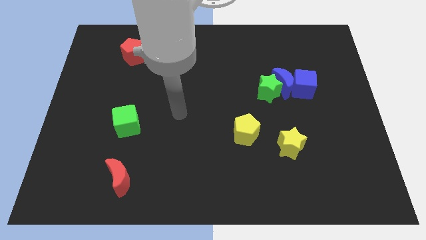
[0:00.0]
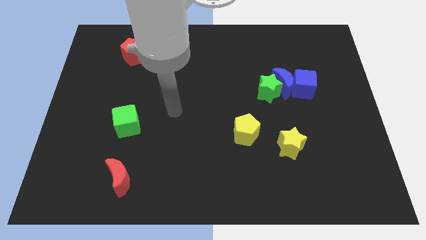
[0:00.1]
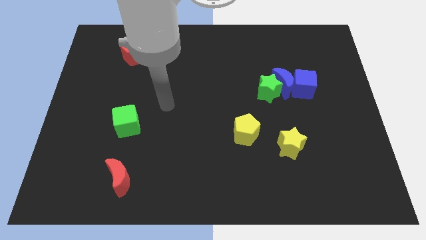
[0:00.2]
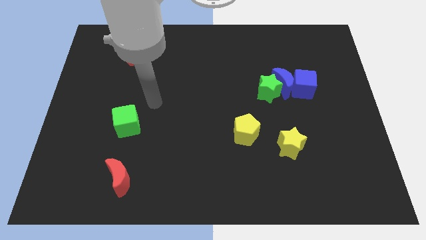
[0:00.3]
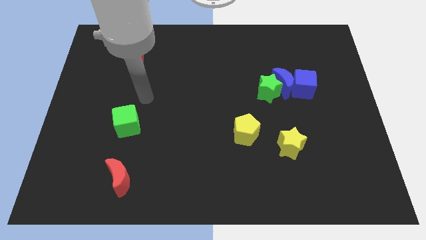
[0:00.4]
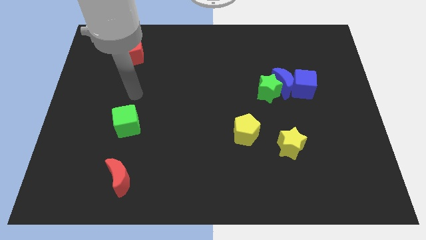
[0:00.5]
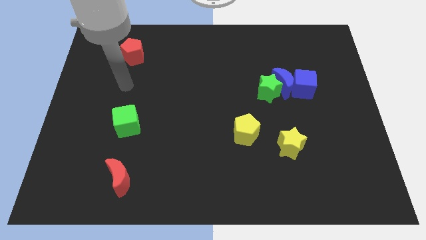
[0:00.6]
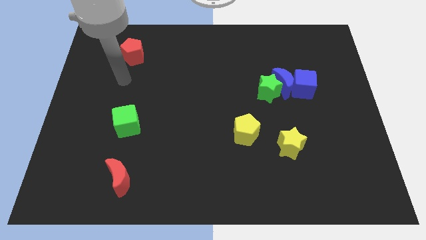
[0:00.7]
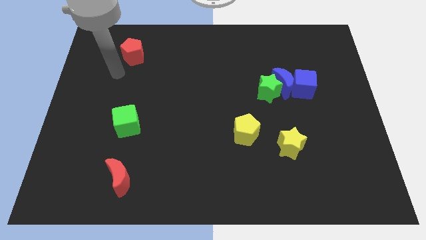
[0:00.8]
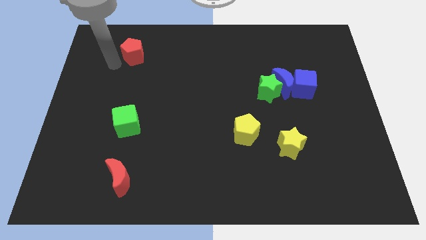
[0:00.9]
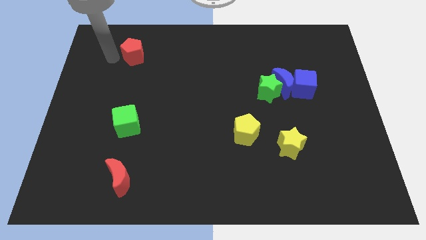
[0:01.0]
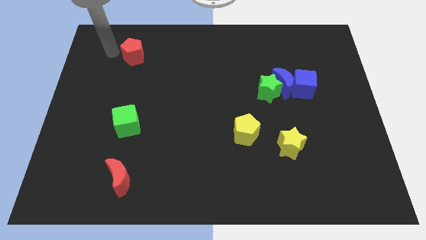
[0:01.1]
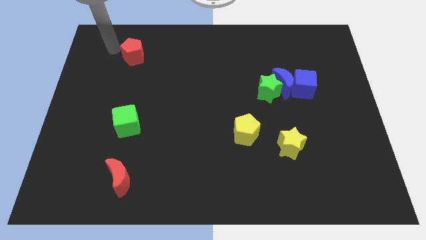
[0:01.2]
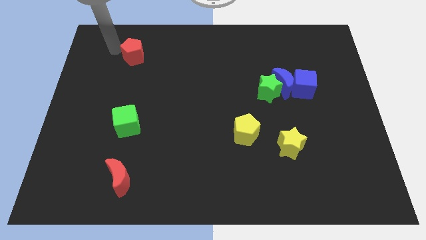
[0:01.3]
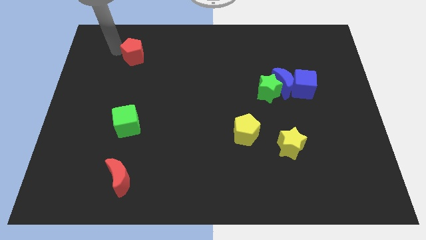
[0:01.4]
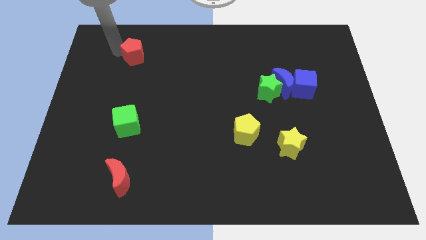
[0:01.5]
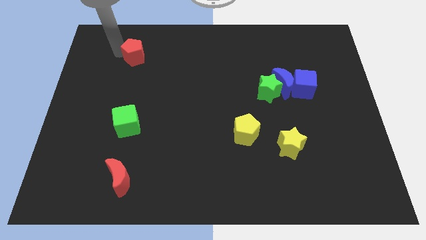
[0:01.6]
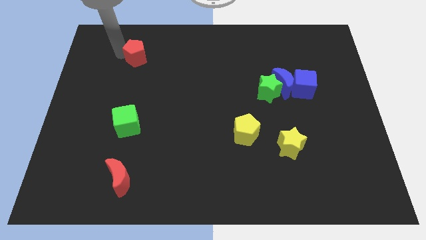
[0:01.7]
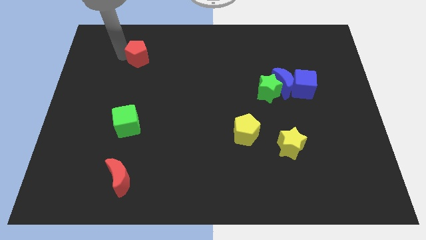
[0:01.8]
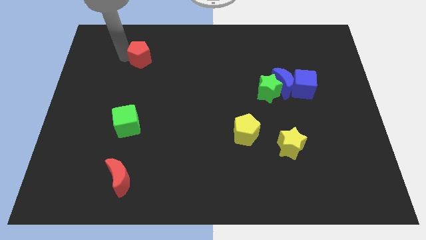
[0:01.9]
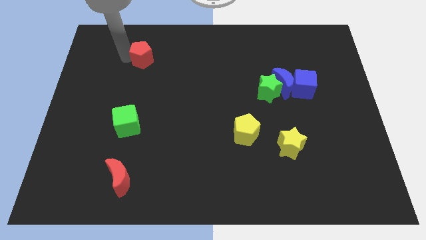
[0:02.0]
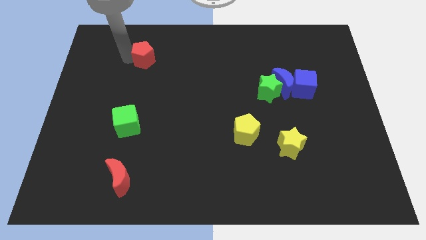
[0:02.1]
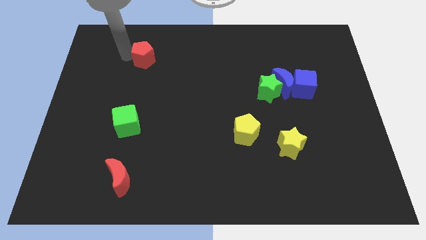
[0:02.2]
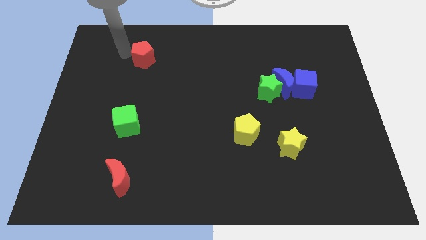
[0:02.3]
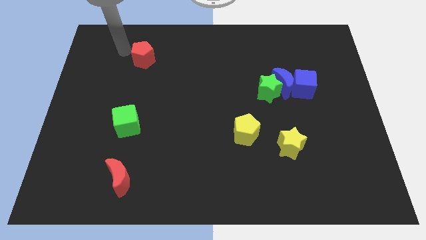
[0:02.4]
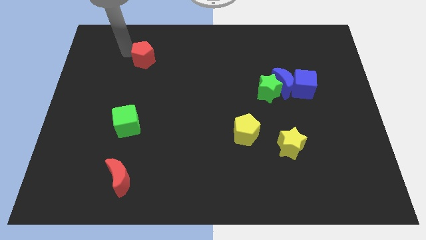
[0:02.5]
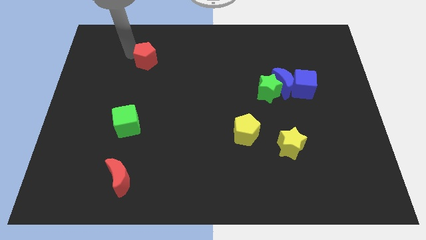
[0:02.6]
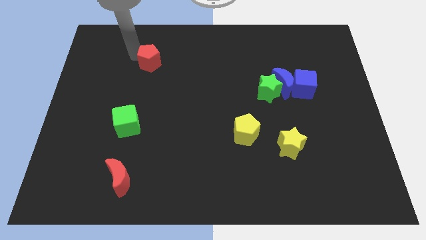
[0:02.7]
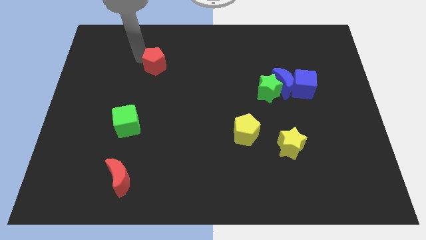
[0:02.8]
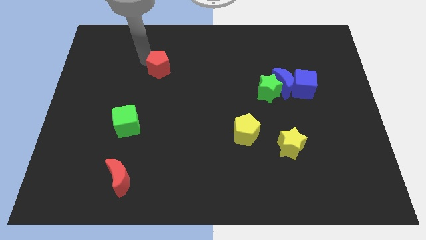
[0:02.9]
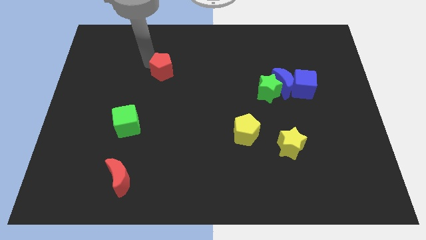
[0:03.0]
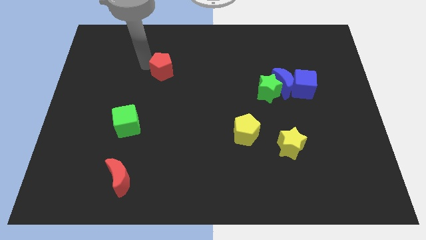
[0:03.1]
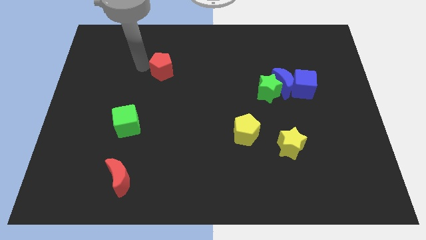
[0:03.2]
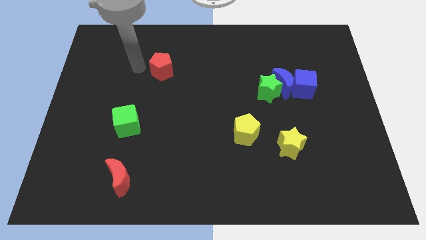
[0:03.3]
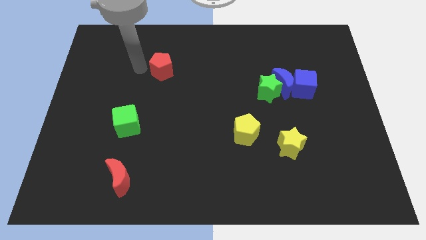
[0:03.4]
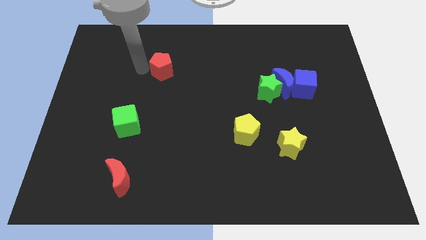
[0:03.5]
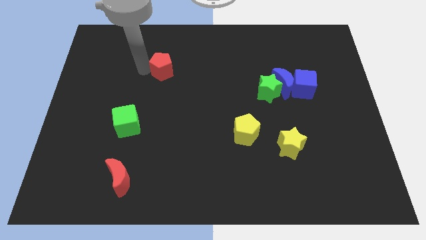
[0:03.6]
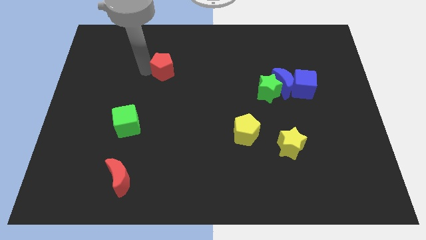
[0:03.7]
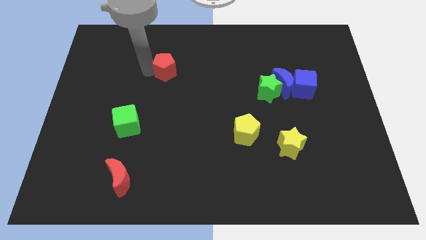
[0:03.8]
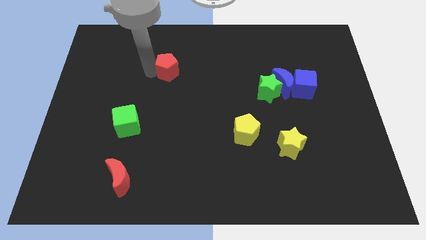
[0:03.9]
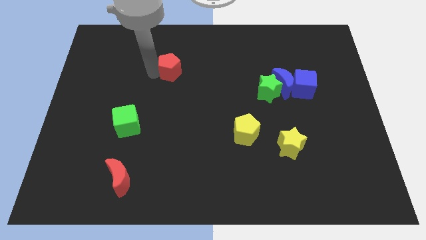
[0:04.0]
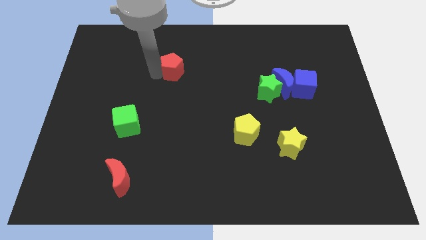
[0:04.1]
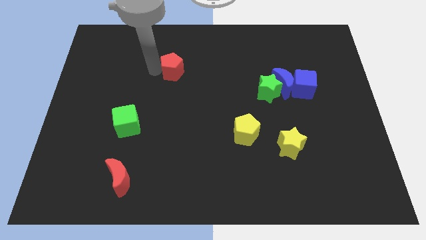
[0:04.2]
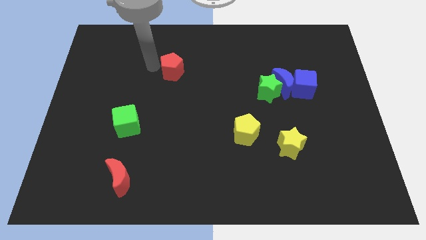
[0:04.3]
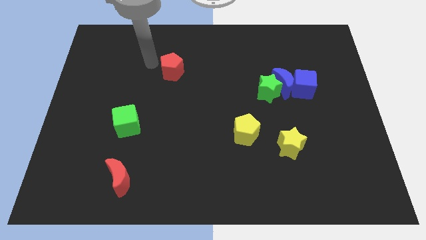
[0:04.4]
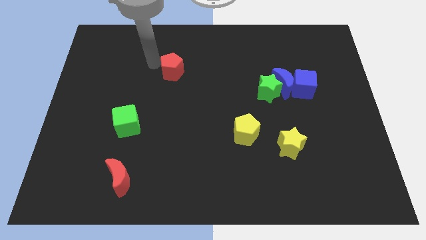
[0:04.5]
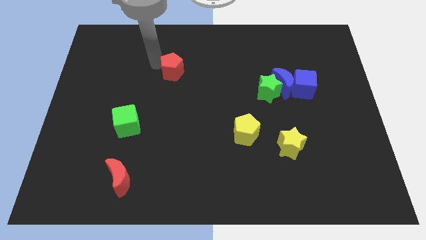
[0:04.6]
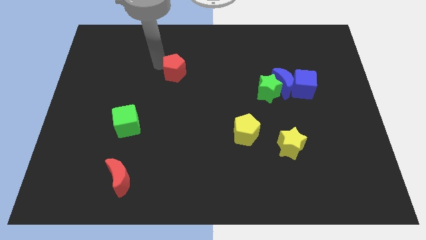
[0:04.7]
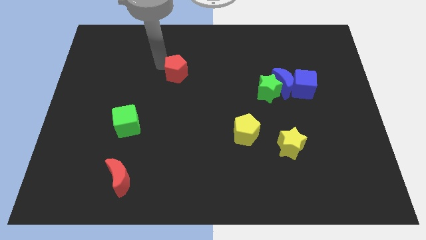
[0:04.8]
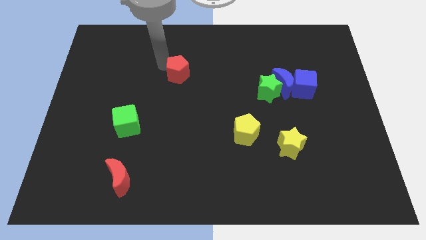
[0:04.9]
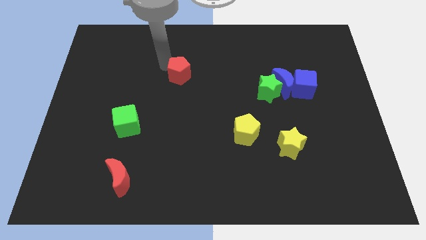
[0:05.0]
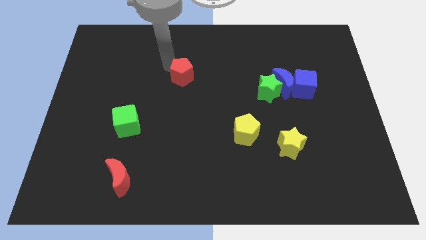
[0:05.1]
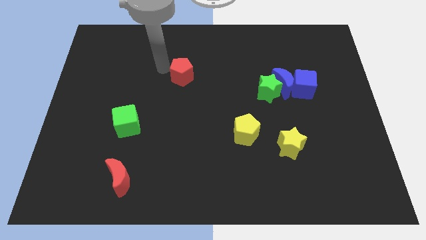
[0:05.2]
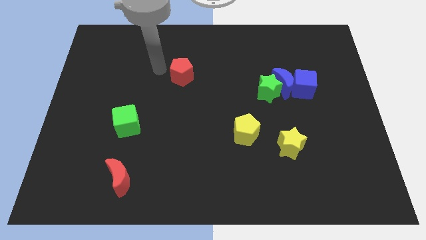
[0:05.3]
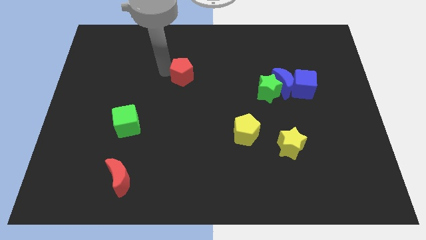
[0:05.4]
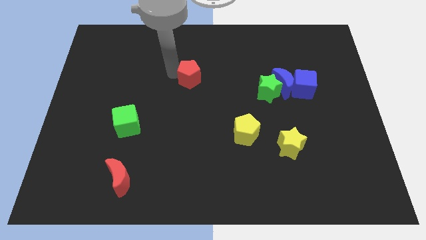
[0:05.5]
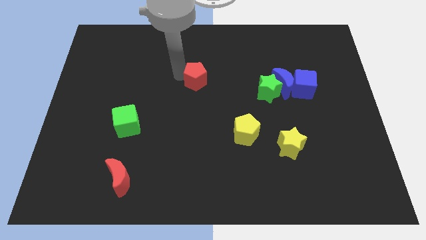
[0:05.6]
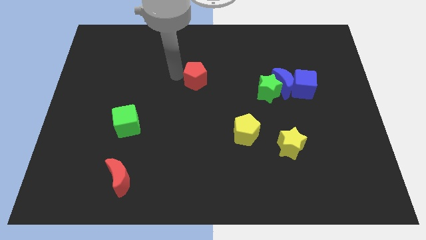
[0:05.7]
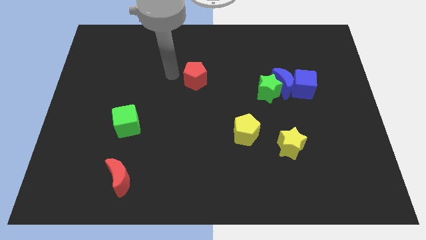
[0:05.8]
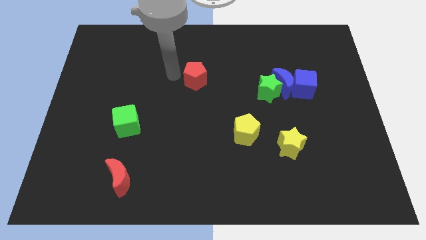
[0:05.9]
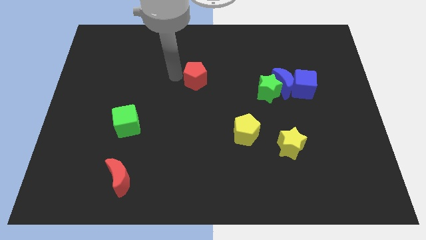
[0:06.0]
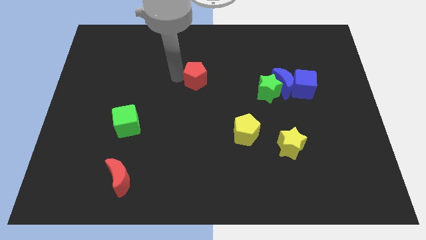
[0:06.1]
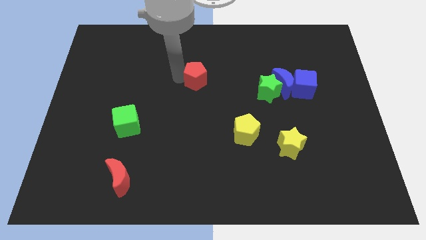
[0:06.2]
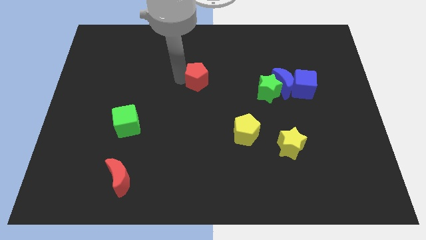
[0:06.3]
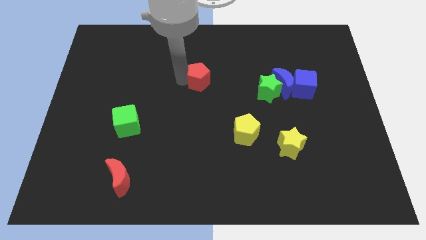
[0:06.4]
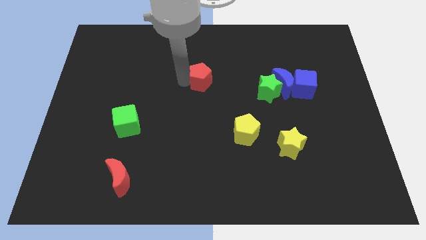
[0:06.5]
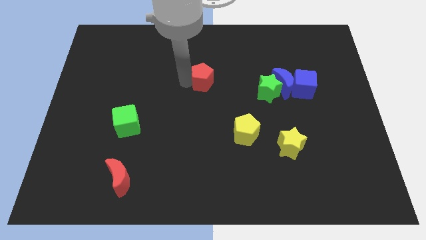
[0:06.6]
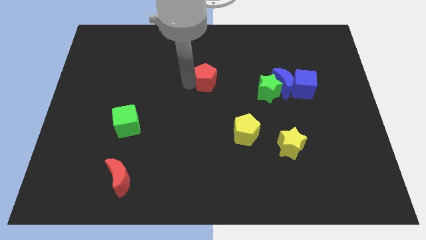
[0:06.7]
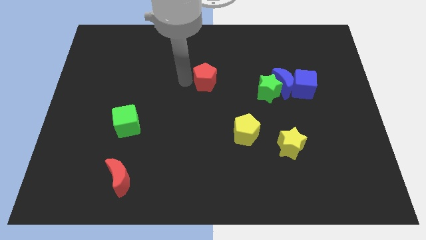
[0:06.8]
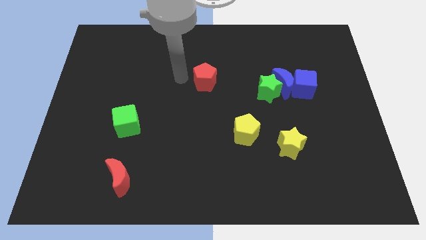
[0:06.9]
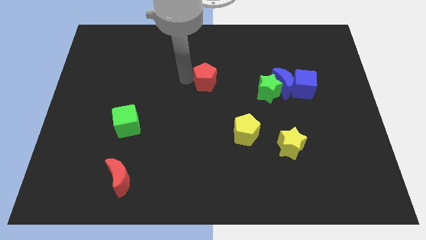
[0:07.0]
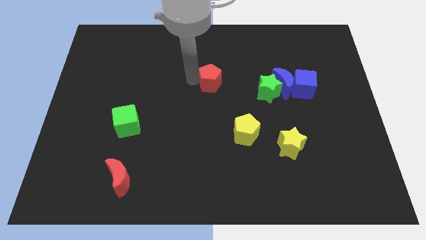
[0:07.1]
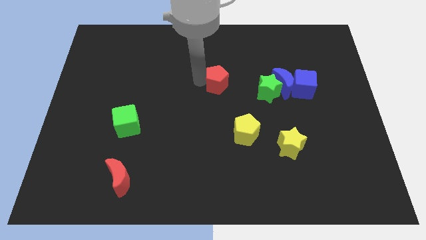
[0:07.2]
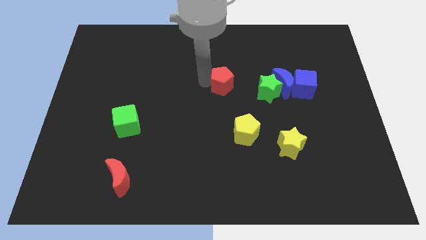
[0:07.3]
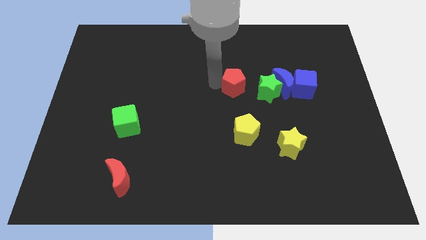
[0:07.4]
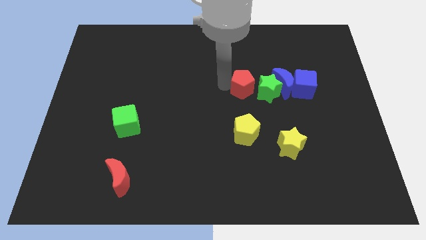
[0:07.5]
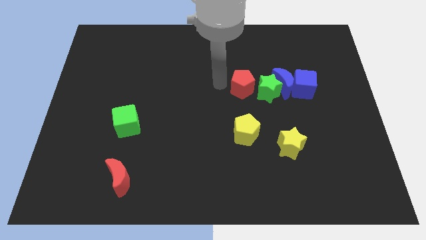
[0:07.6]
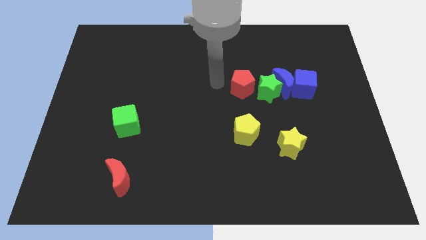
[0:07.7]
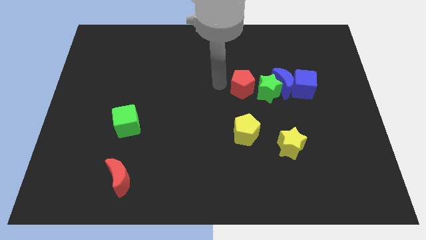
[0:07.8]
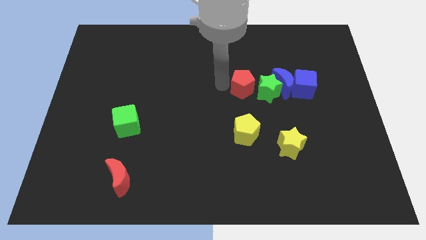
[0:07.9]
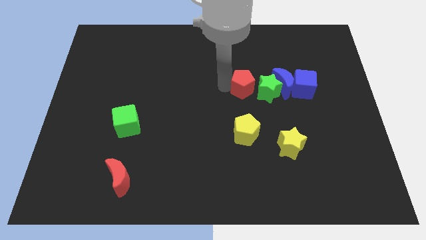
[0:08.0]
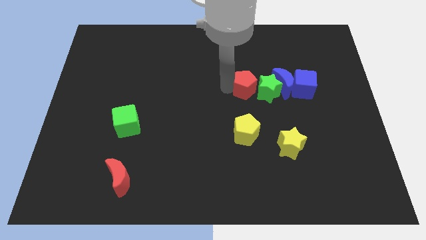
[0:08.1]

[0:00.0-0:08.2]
move the red pentagon next to the green star
